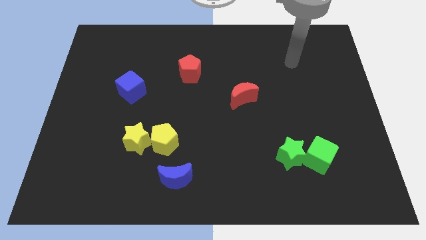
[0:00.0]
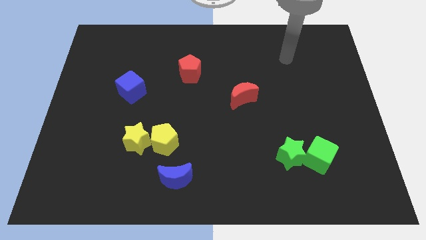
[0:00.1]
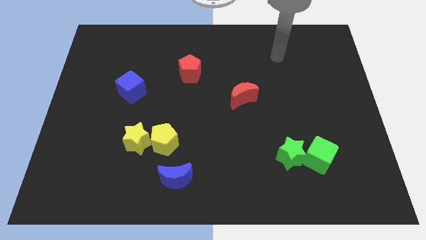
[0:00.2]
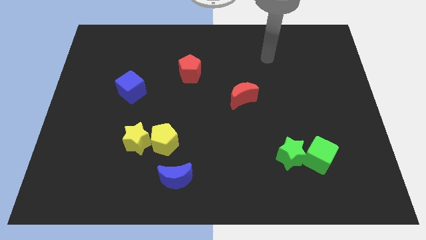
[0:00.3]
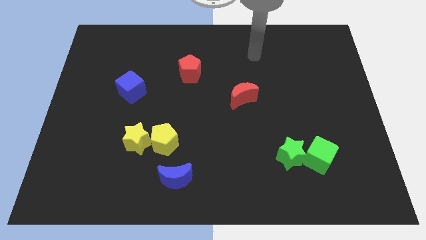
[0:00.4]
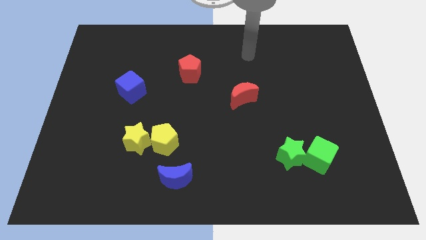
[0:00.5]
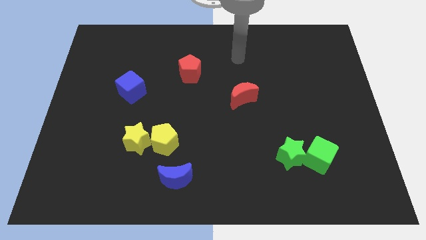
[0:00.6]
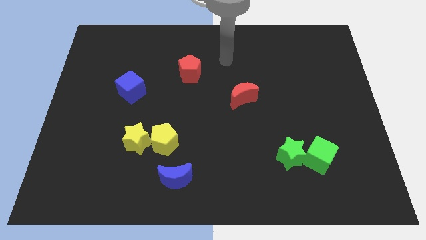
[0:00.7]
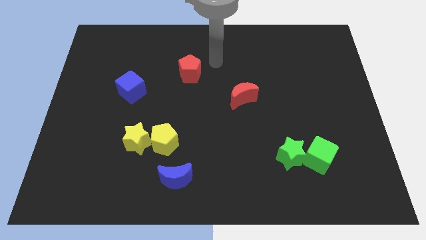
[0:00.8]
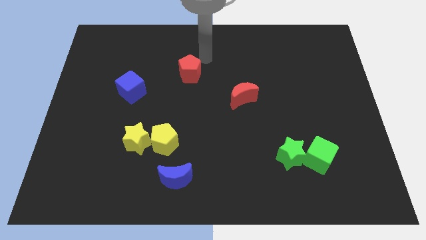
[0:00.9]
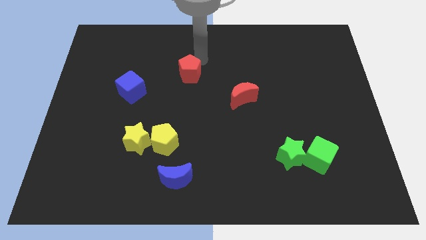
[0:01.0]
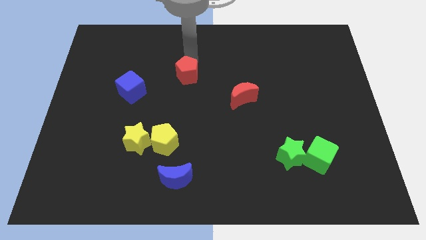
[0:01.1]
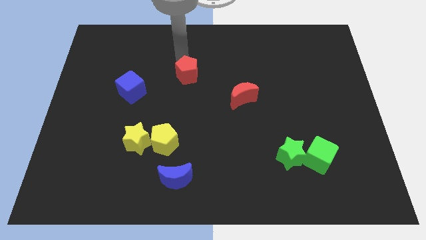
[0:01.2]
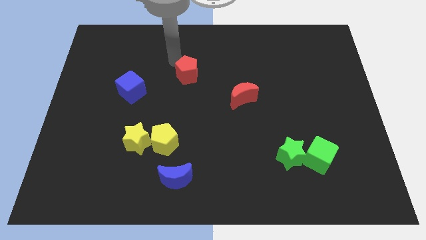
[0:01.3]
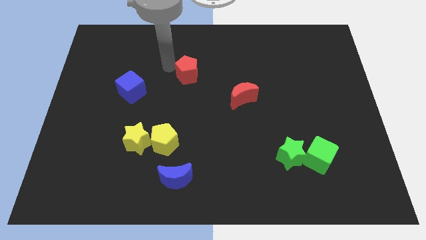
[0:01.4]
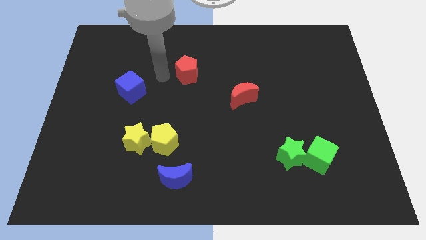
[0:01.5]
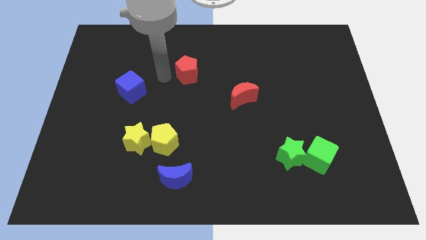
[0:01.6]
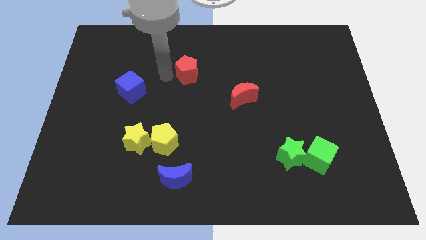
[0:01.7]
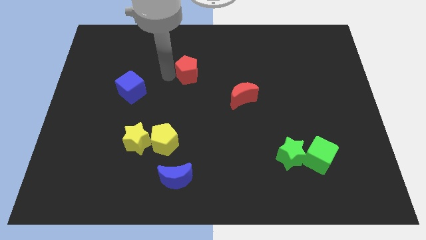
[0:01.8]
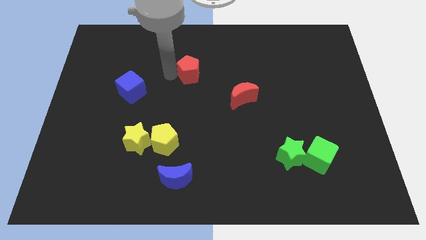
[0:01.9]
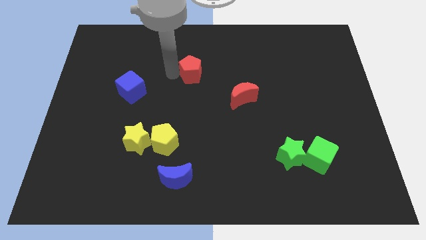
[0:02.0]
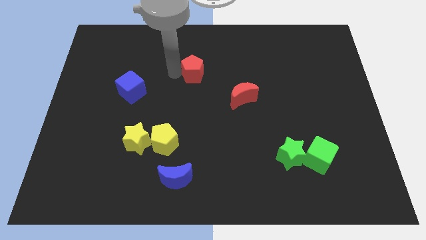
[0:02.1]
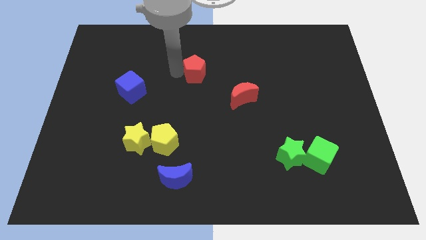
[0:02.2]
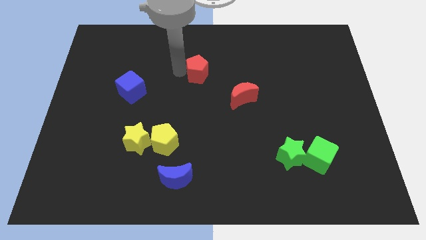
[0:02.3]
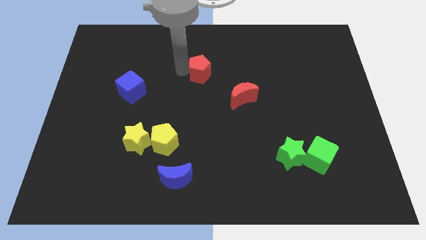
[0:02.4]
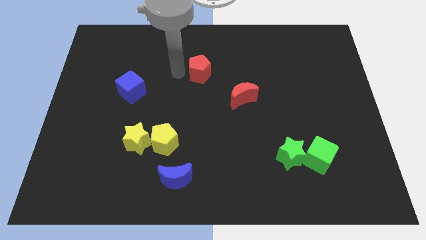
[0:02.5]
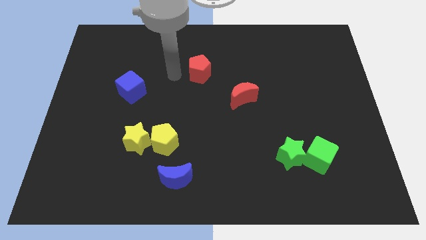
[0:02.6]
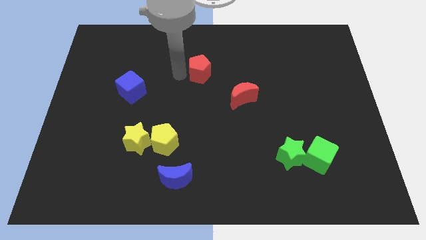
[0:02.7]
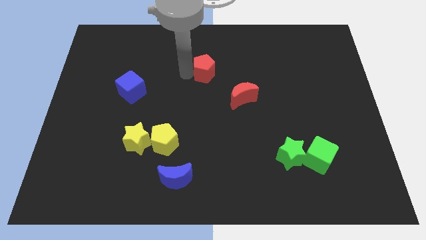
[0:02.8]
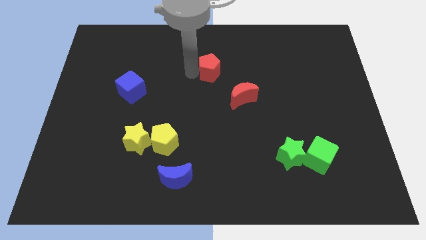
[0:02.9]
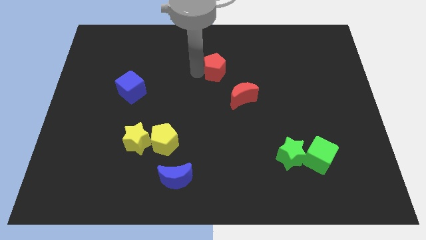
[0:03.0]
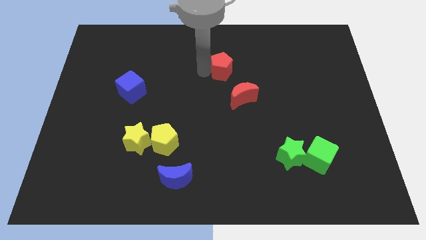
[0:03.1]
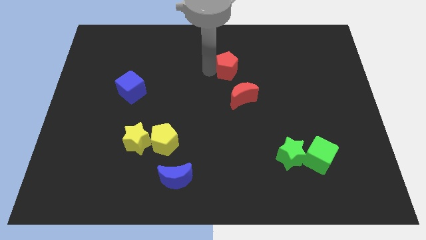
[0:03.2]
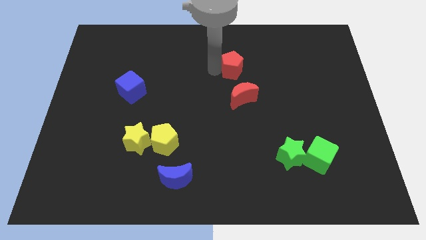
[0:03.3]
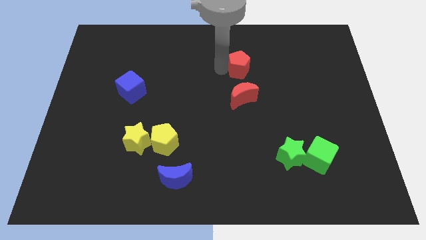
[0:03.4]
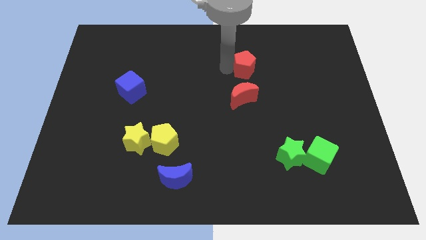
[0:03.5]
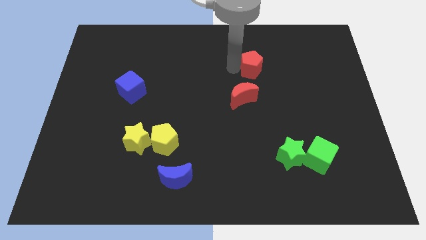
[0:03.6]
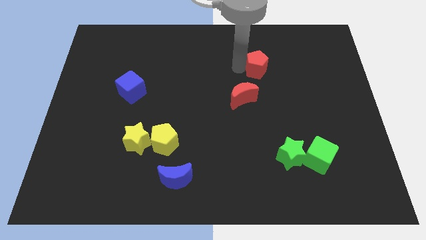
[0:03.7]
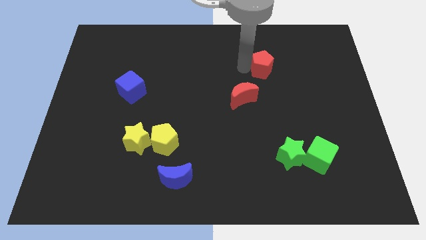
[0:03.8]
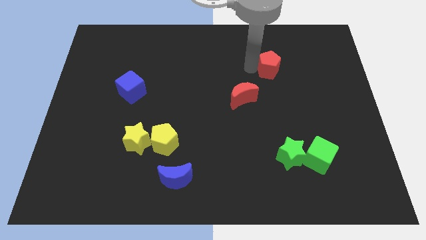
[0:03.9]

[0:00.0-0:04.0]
push the red pentagon to the right

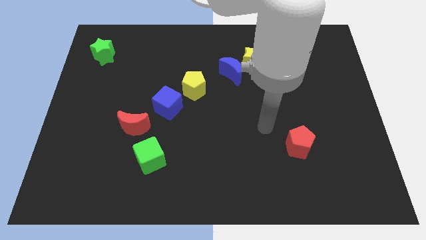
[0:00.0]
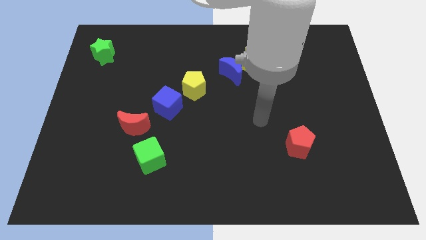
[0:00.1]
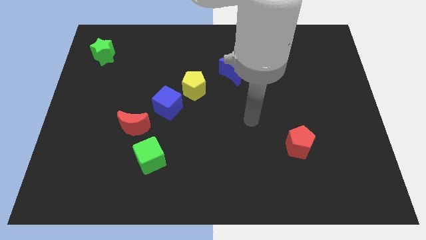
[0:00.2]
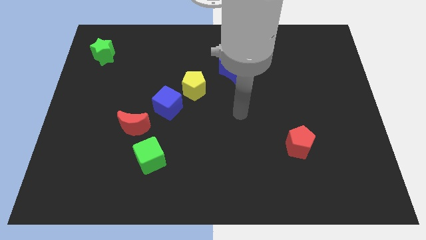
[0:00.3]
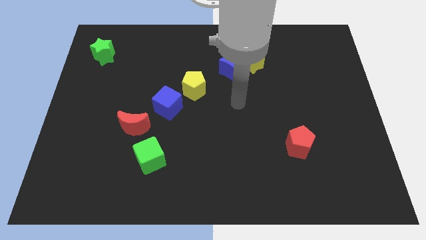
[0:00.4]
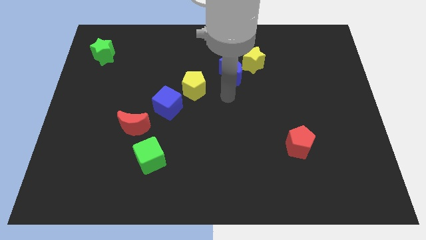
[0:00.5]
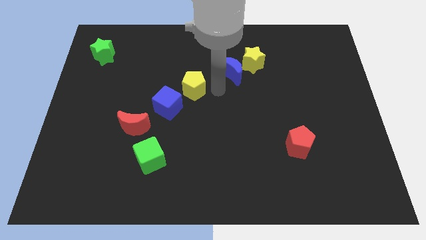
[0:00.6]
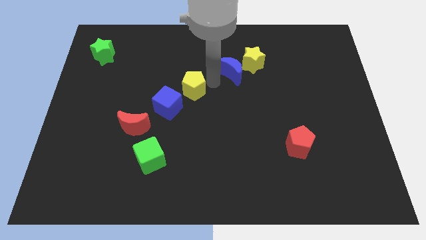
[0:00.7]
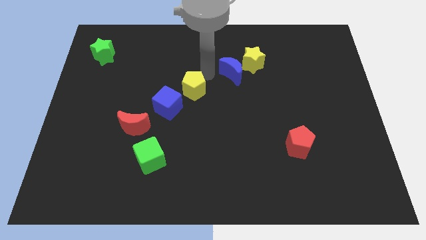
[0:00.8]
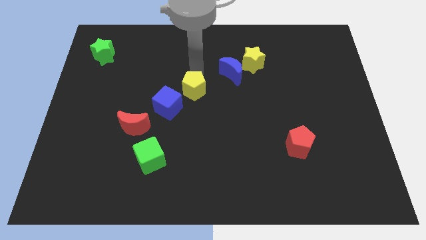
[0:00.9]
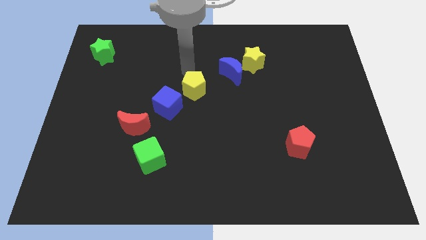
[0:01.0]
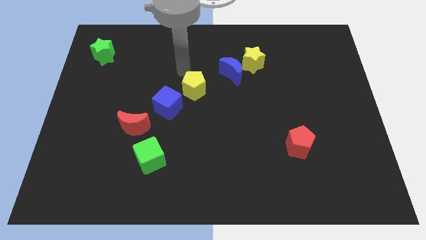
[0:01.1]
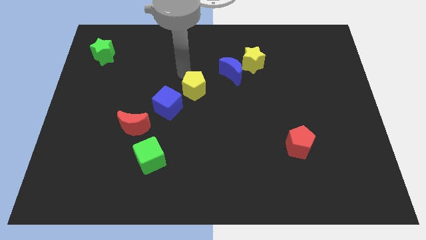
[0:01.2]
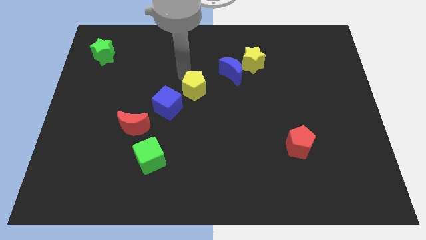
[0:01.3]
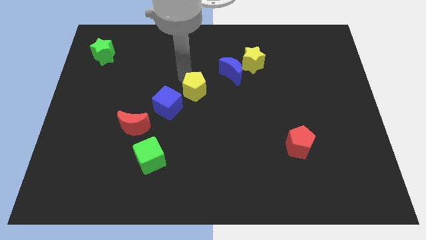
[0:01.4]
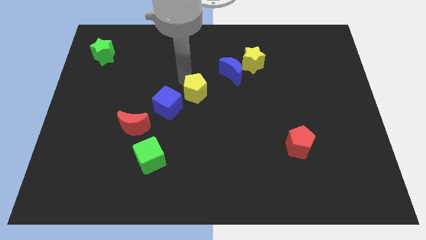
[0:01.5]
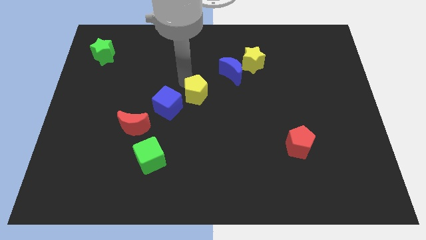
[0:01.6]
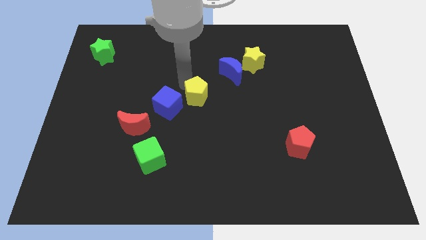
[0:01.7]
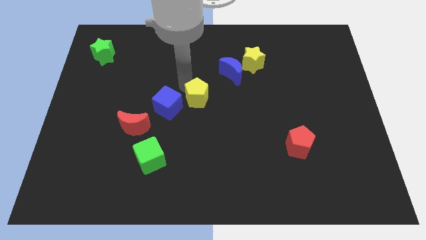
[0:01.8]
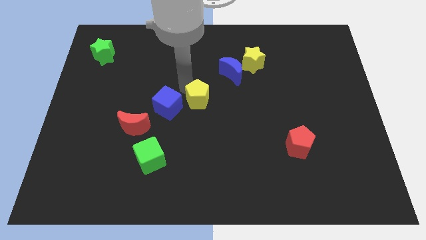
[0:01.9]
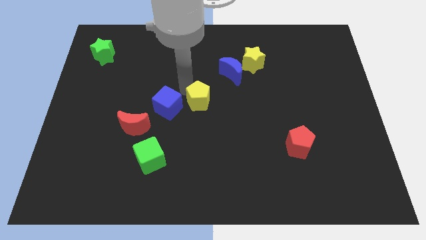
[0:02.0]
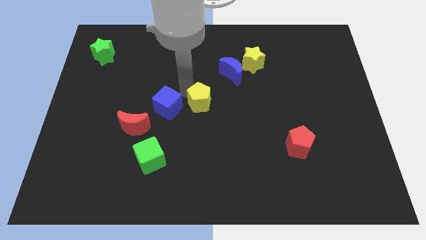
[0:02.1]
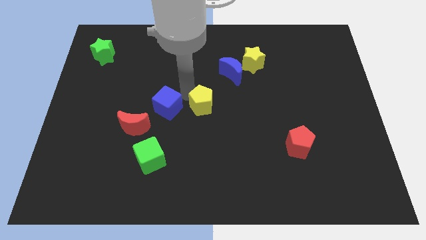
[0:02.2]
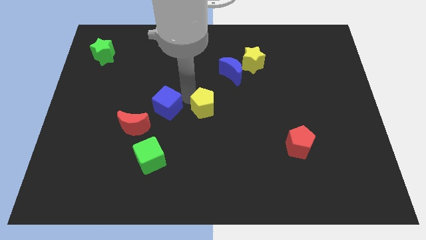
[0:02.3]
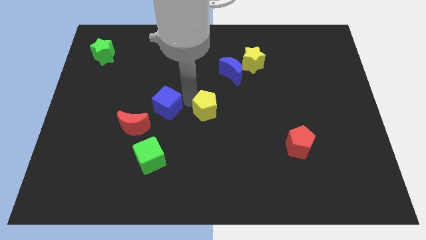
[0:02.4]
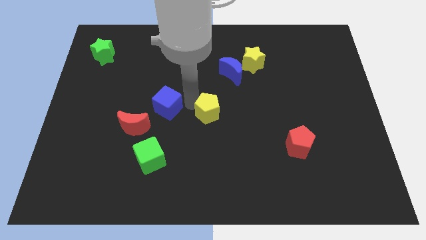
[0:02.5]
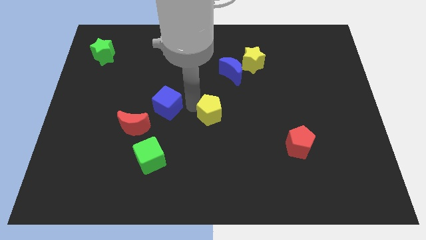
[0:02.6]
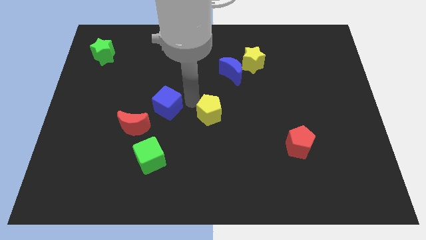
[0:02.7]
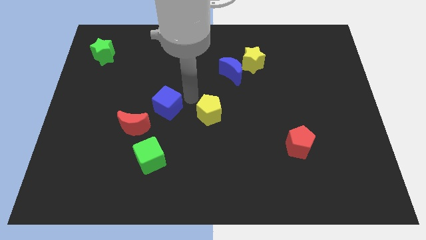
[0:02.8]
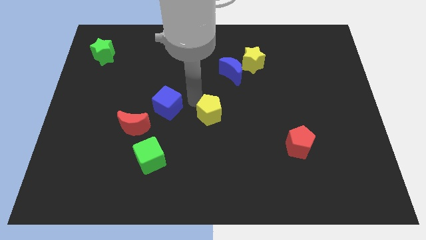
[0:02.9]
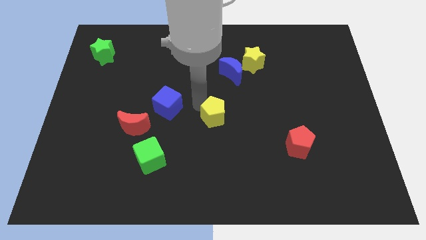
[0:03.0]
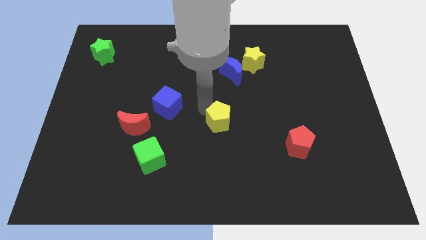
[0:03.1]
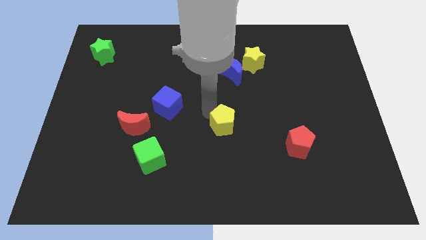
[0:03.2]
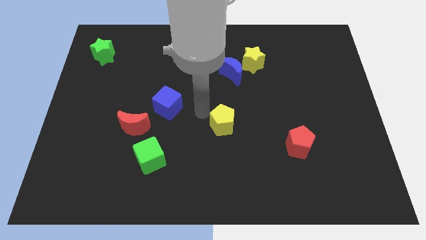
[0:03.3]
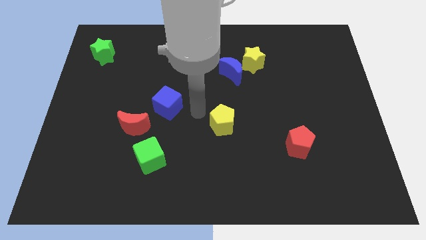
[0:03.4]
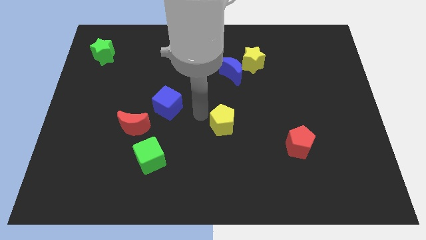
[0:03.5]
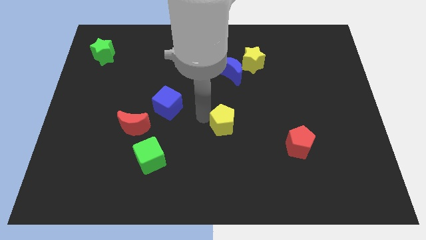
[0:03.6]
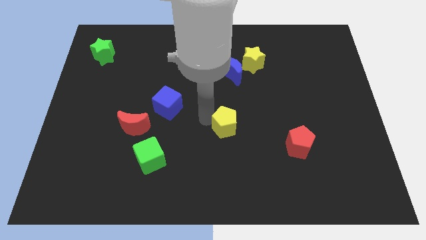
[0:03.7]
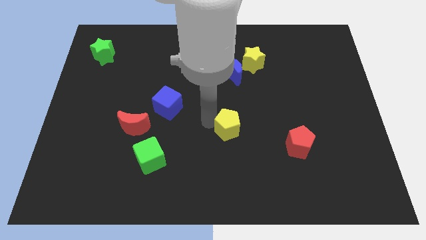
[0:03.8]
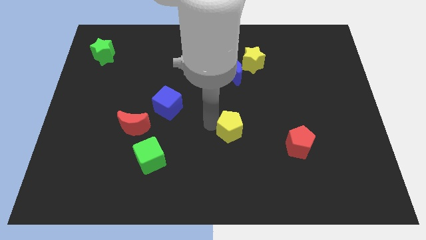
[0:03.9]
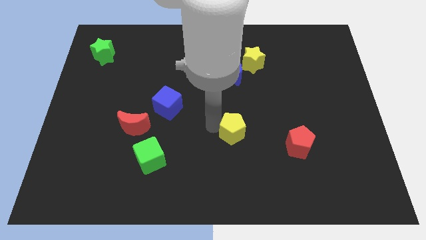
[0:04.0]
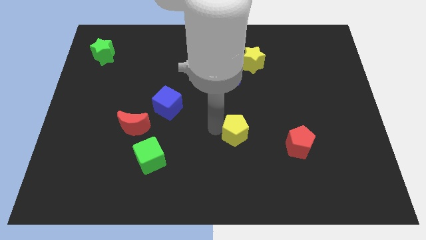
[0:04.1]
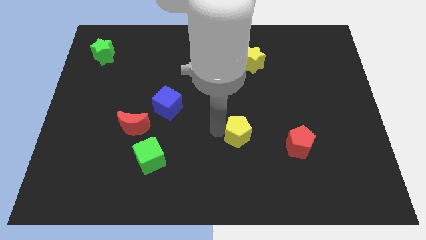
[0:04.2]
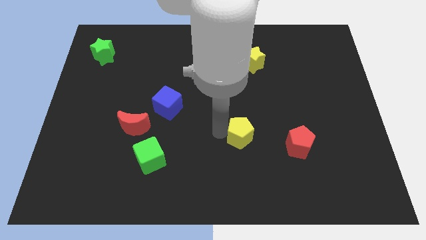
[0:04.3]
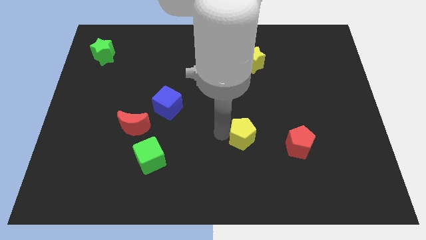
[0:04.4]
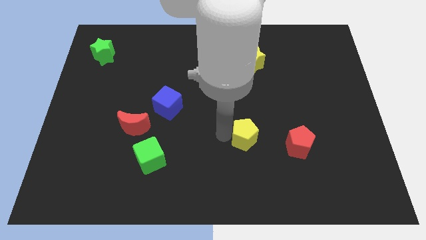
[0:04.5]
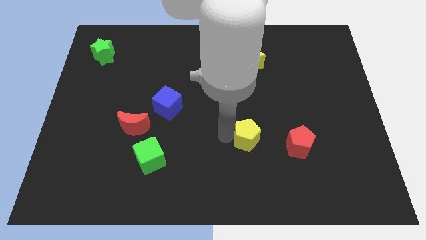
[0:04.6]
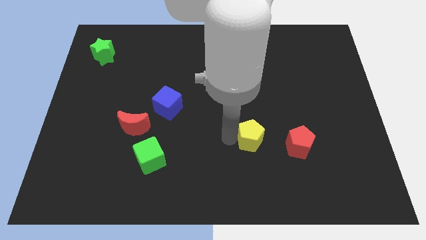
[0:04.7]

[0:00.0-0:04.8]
slide the yellow pentagon downwards and then to the right
